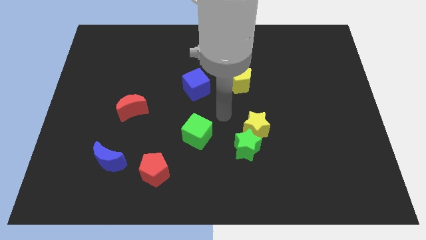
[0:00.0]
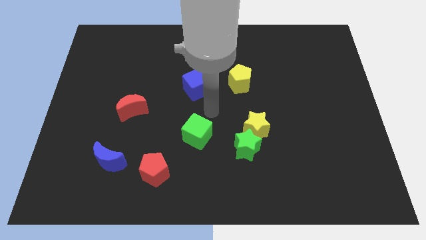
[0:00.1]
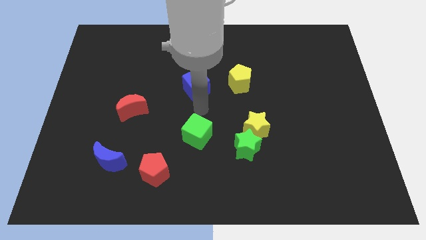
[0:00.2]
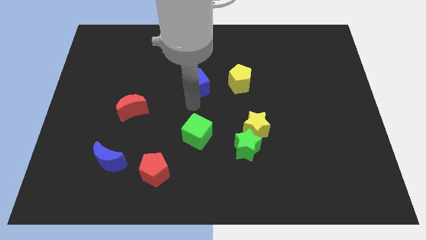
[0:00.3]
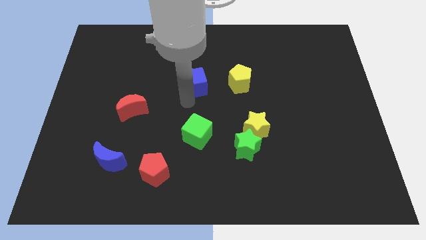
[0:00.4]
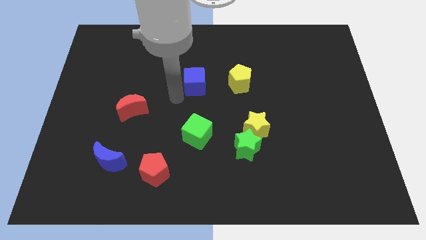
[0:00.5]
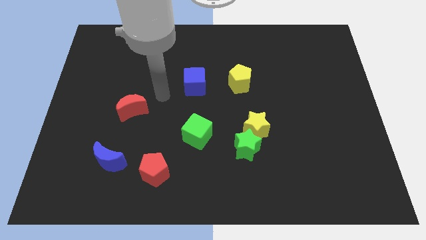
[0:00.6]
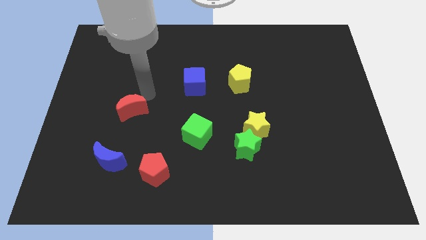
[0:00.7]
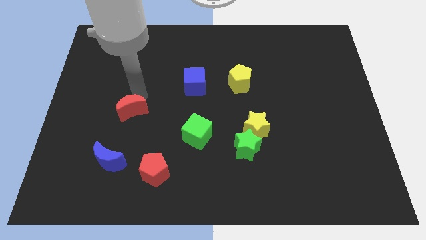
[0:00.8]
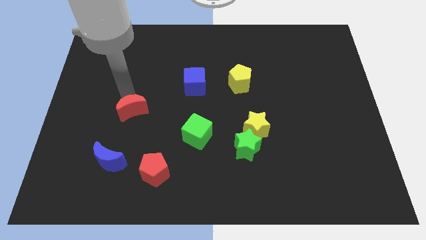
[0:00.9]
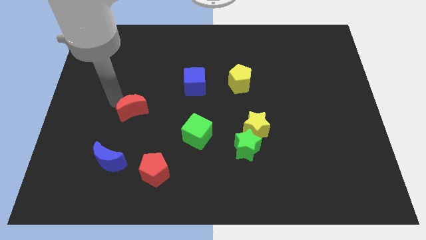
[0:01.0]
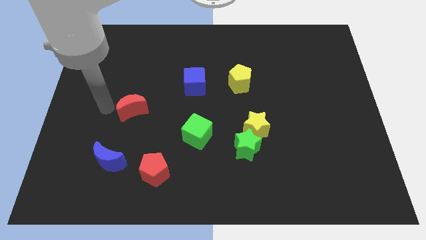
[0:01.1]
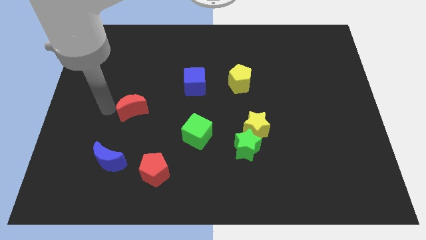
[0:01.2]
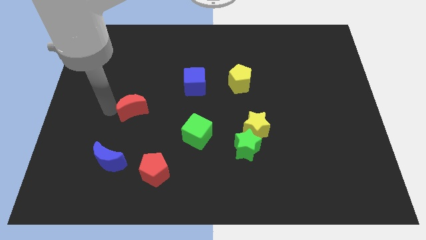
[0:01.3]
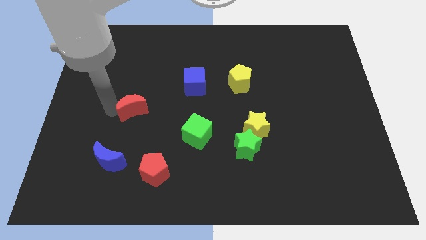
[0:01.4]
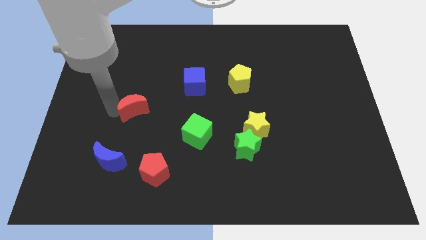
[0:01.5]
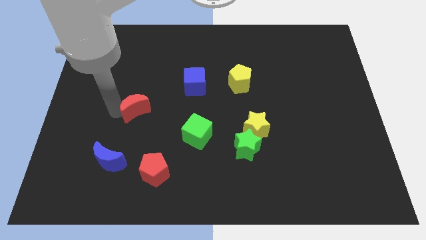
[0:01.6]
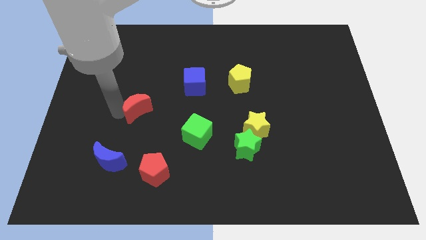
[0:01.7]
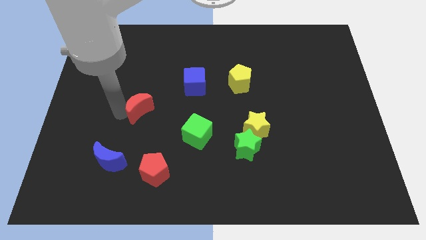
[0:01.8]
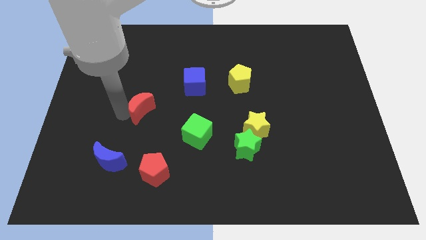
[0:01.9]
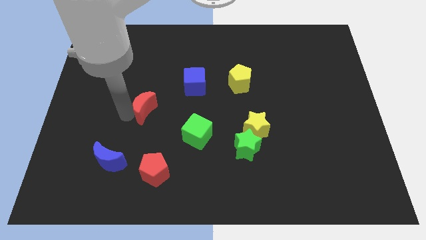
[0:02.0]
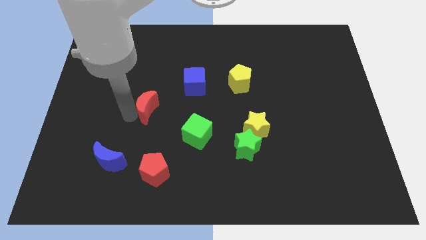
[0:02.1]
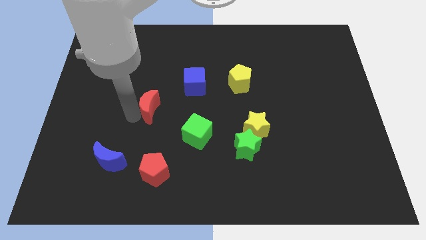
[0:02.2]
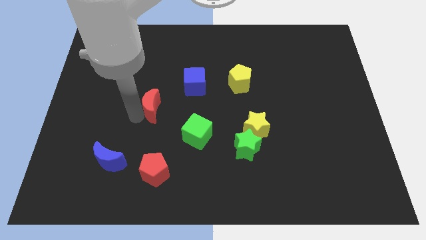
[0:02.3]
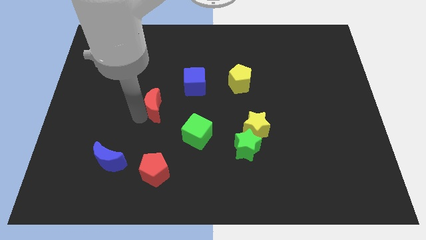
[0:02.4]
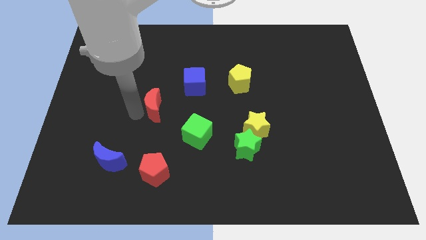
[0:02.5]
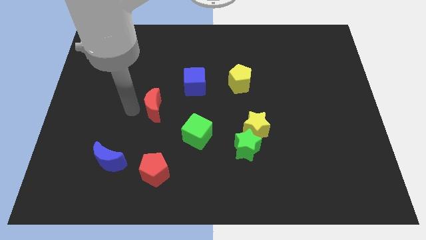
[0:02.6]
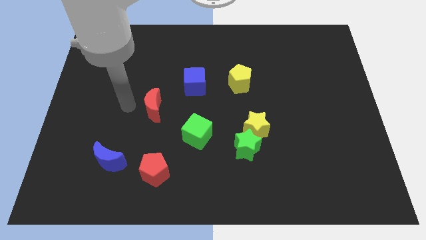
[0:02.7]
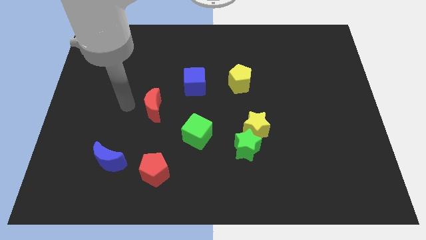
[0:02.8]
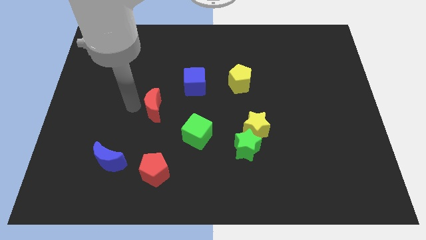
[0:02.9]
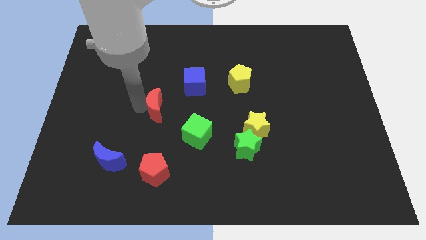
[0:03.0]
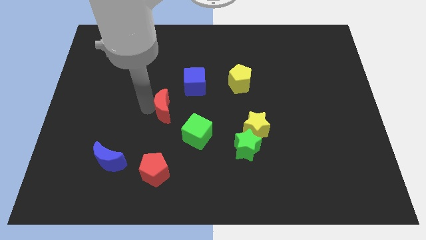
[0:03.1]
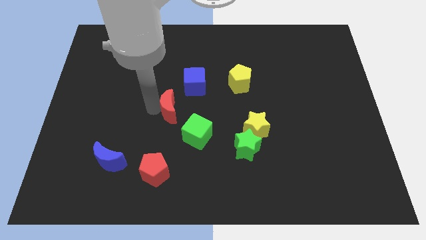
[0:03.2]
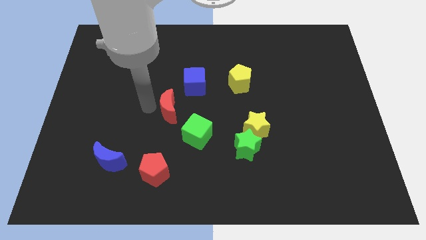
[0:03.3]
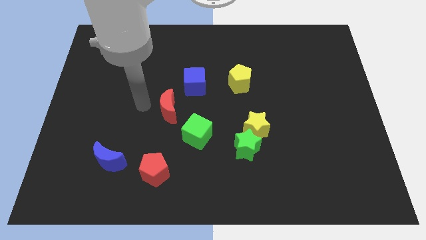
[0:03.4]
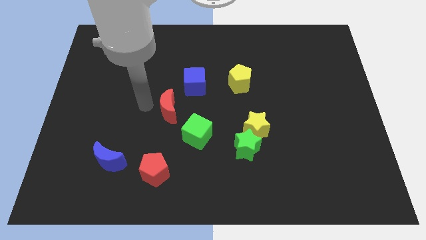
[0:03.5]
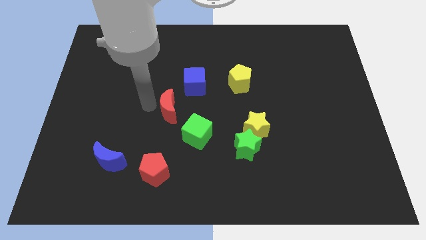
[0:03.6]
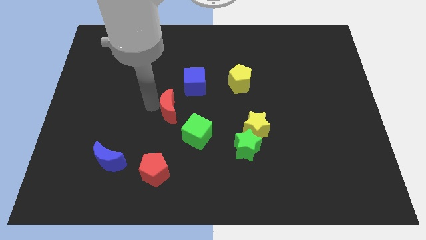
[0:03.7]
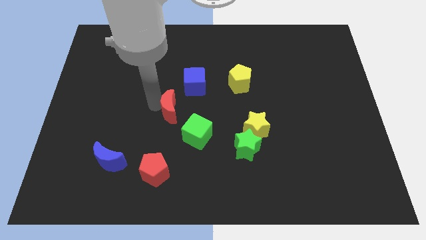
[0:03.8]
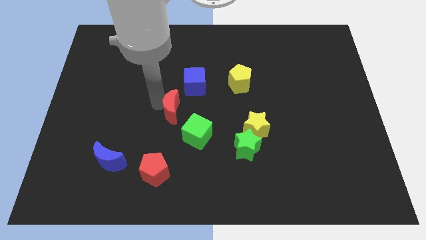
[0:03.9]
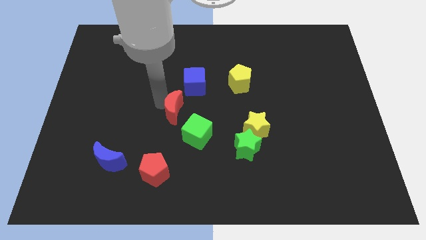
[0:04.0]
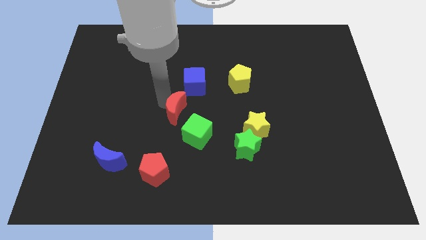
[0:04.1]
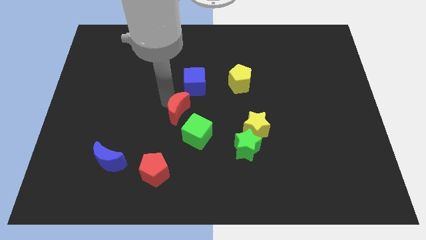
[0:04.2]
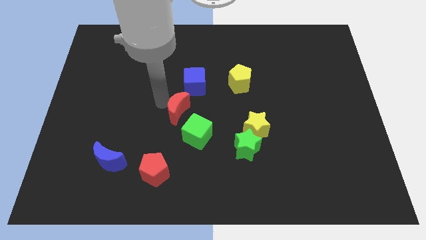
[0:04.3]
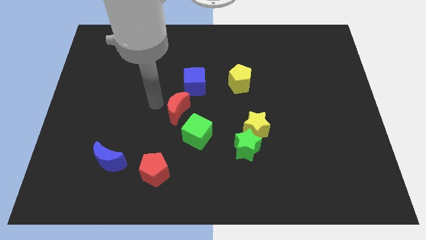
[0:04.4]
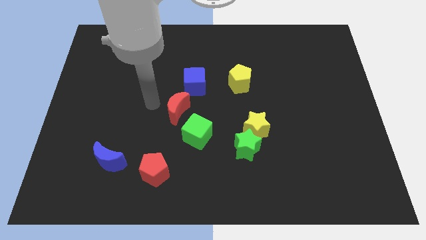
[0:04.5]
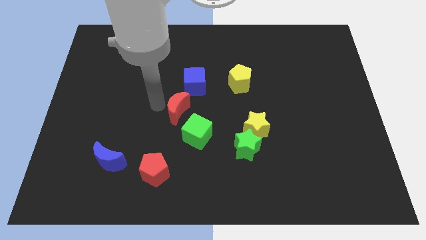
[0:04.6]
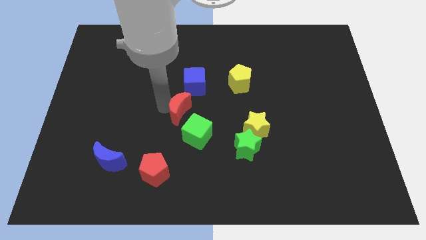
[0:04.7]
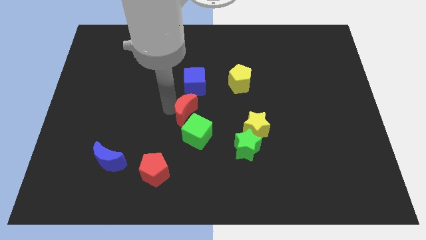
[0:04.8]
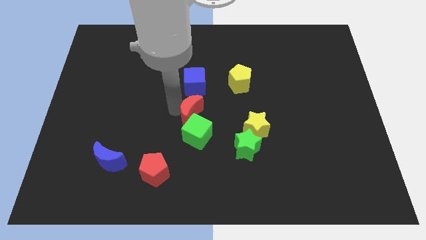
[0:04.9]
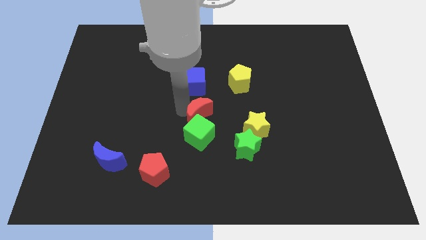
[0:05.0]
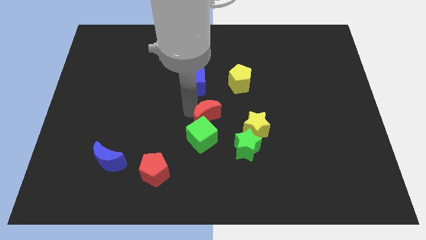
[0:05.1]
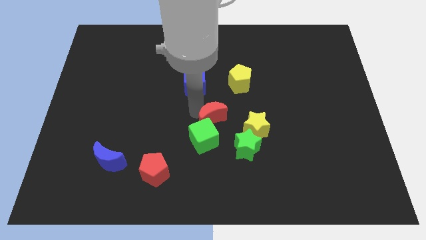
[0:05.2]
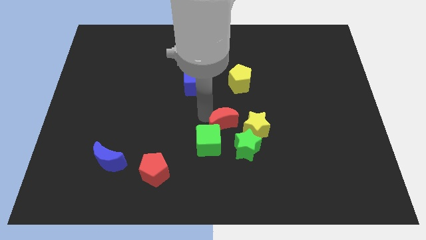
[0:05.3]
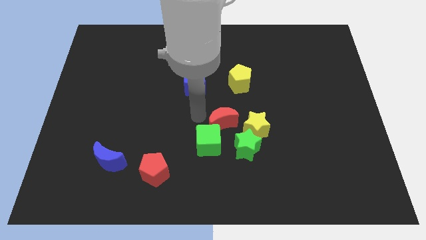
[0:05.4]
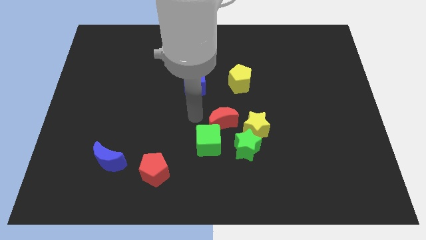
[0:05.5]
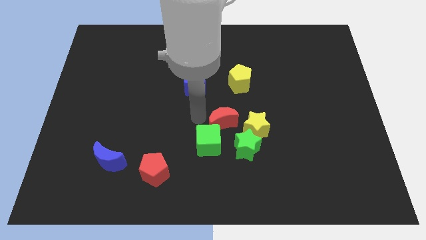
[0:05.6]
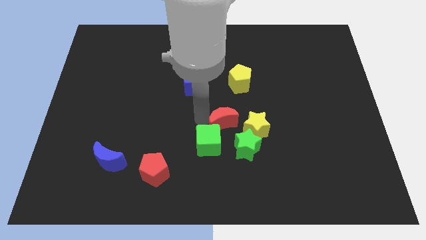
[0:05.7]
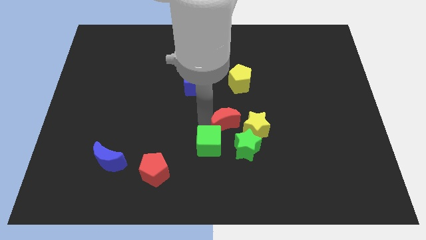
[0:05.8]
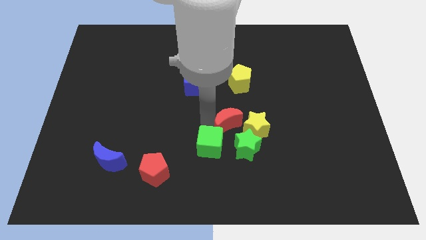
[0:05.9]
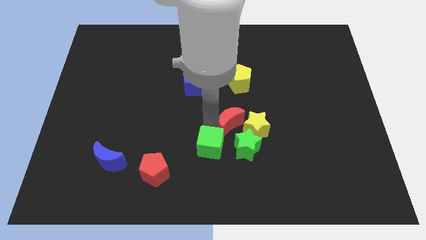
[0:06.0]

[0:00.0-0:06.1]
move the red moon close to the yellow star

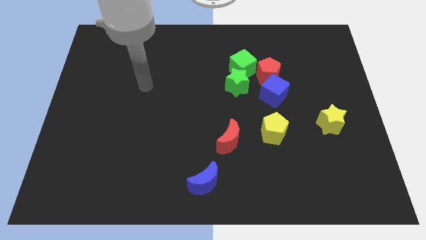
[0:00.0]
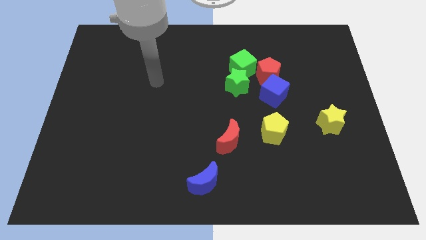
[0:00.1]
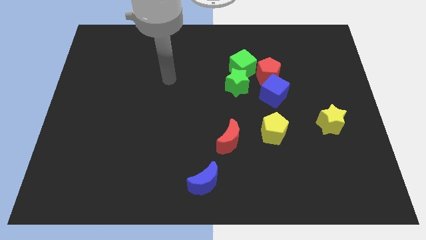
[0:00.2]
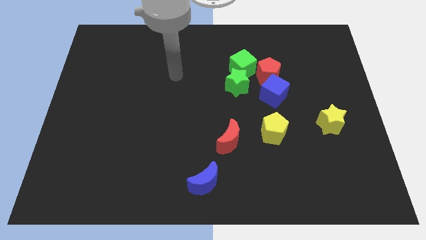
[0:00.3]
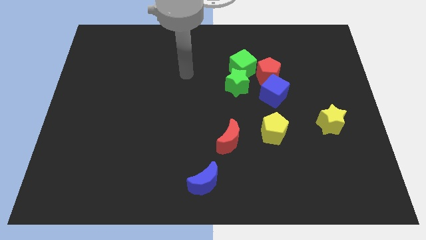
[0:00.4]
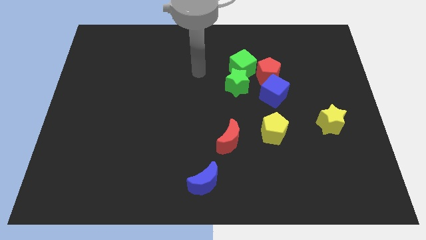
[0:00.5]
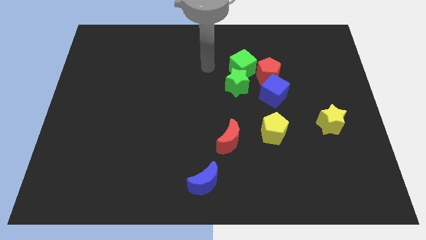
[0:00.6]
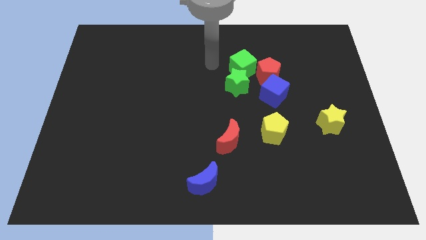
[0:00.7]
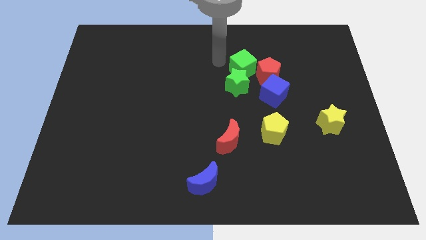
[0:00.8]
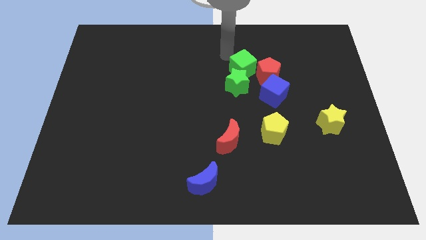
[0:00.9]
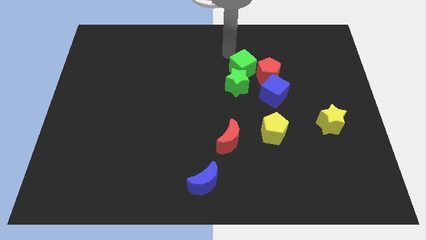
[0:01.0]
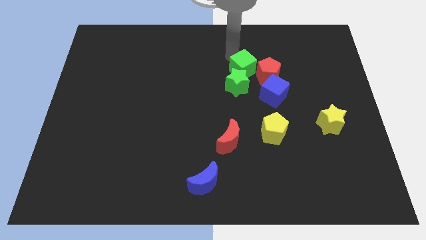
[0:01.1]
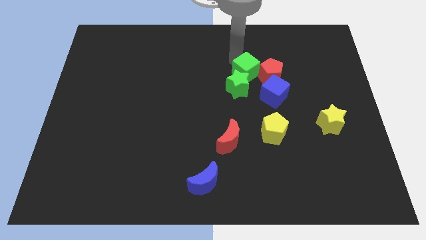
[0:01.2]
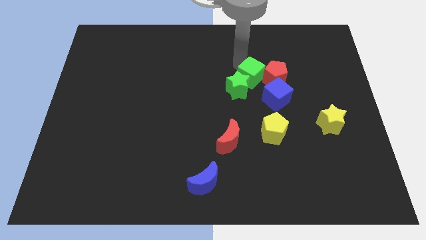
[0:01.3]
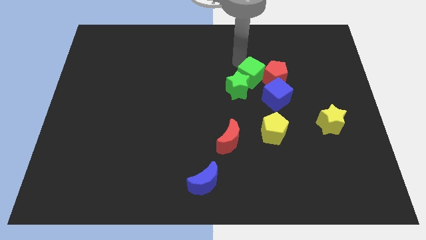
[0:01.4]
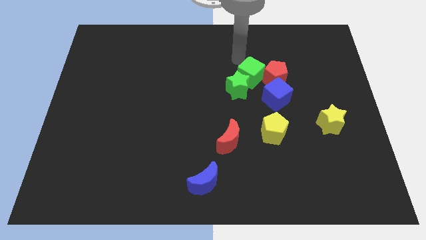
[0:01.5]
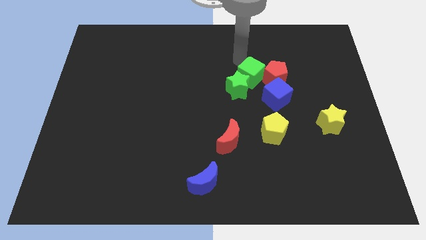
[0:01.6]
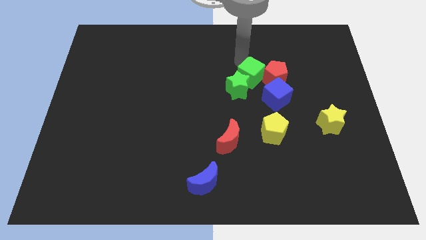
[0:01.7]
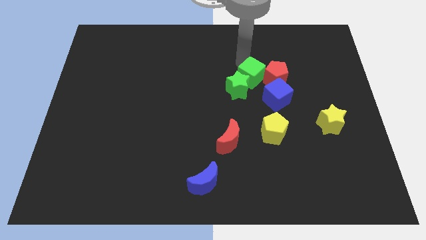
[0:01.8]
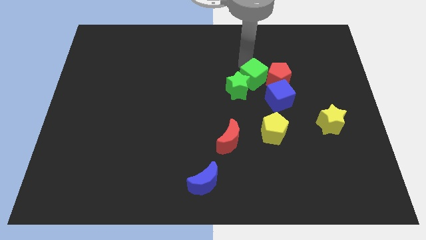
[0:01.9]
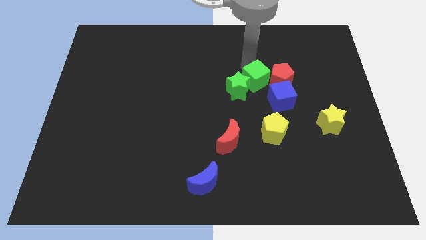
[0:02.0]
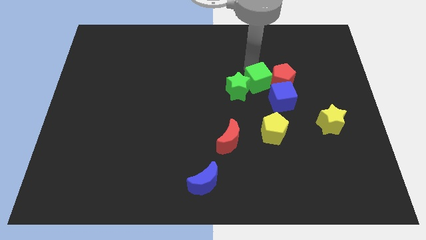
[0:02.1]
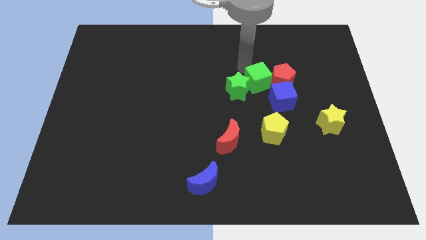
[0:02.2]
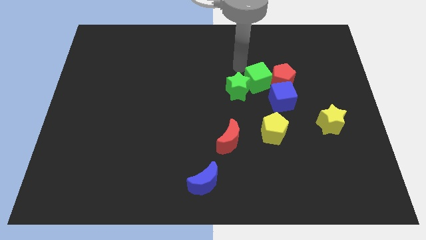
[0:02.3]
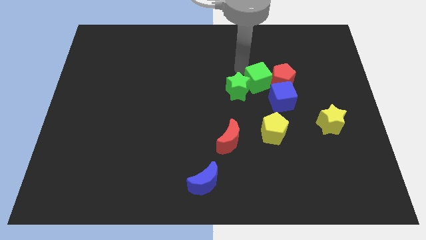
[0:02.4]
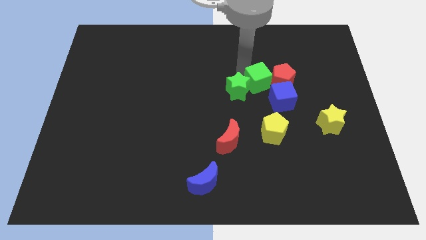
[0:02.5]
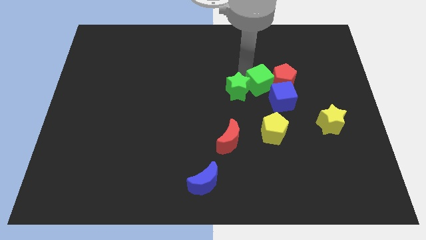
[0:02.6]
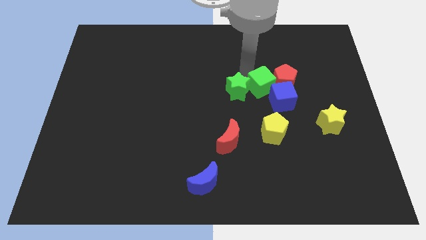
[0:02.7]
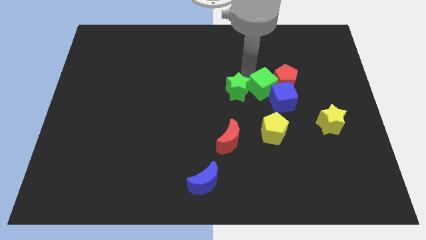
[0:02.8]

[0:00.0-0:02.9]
move the green cube towards the blue cube
